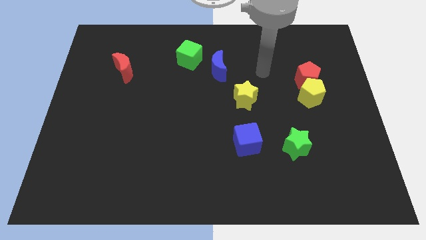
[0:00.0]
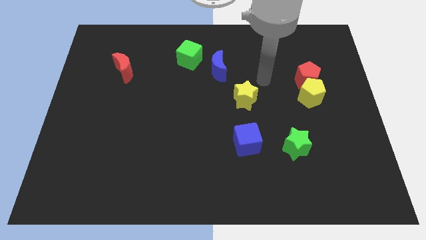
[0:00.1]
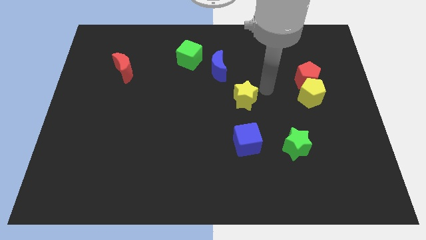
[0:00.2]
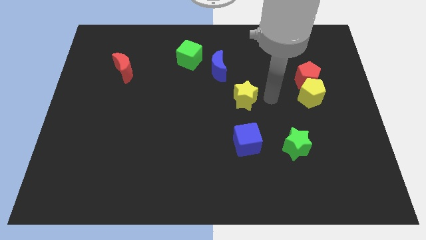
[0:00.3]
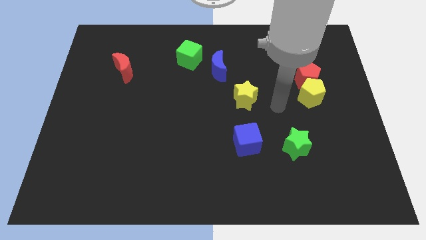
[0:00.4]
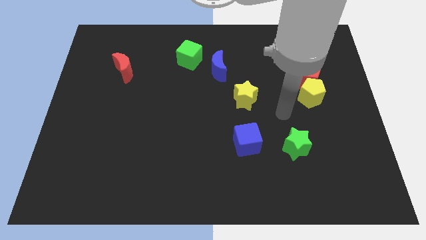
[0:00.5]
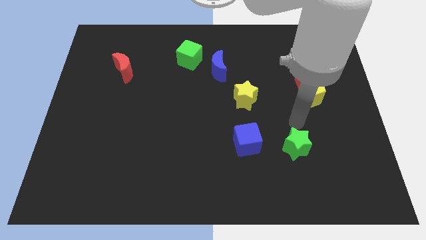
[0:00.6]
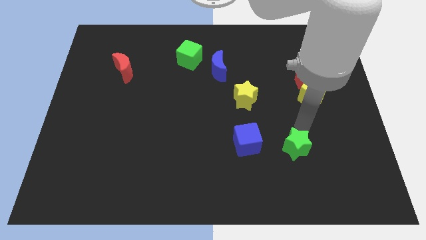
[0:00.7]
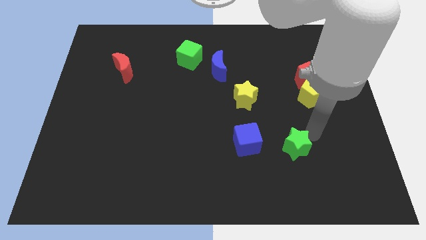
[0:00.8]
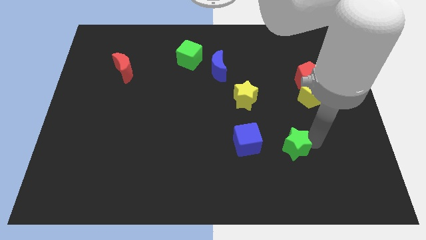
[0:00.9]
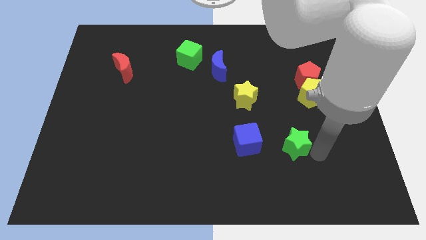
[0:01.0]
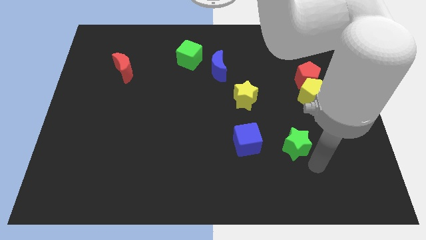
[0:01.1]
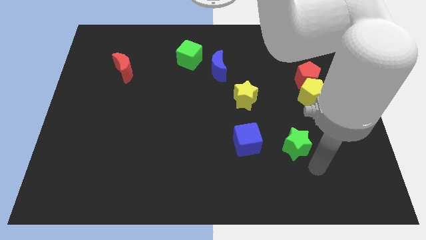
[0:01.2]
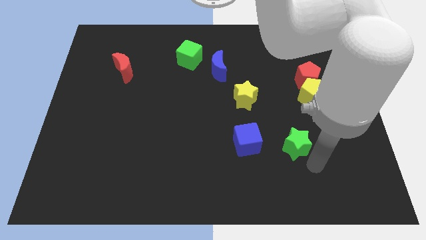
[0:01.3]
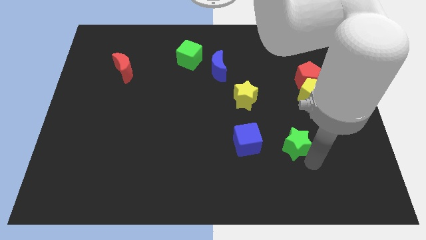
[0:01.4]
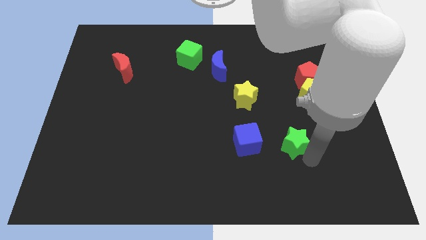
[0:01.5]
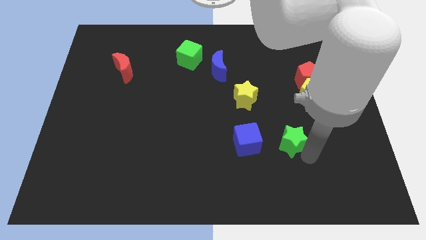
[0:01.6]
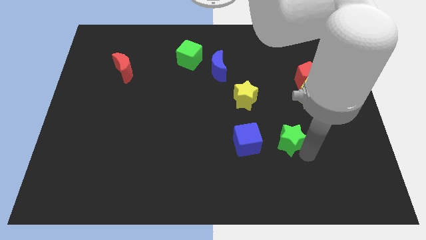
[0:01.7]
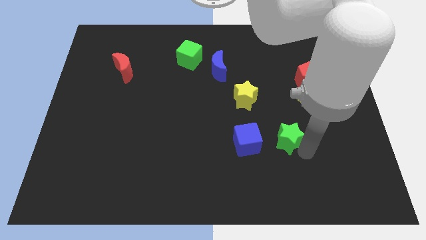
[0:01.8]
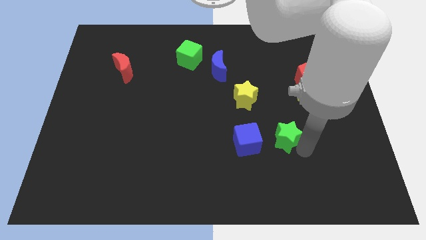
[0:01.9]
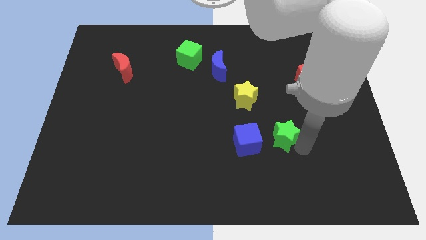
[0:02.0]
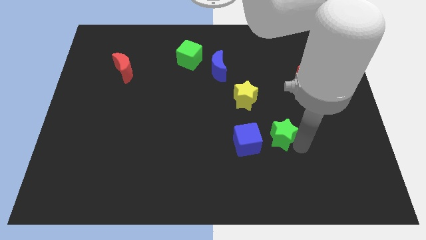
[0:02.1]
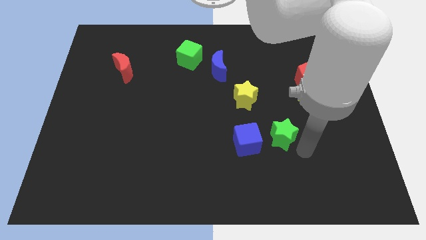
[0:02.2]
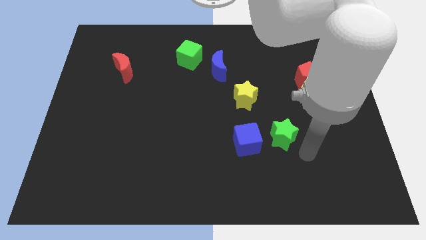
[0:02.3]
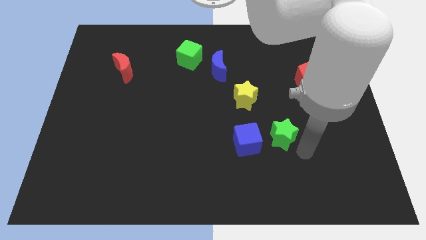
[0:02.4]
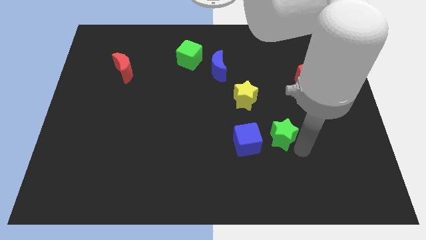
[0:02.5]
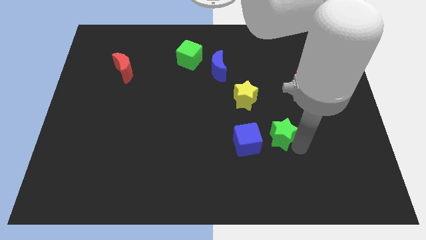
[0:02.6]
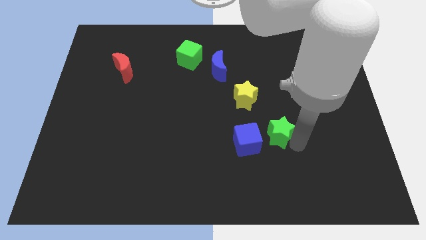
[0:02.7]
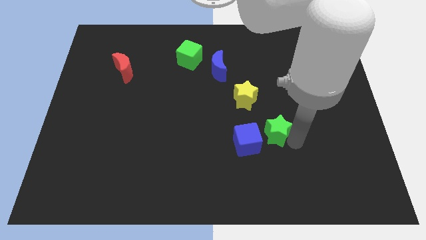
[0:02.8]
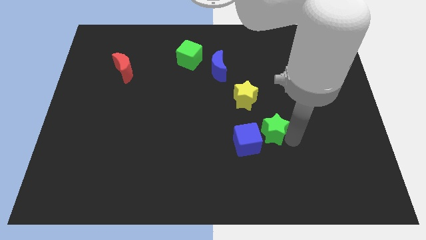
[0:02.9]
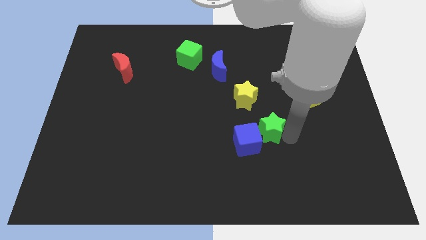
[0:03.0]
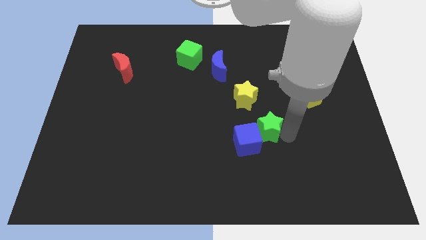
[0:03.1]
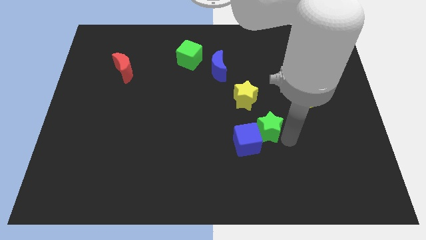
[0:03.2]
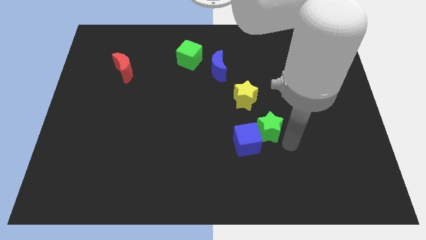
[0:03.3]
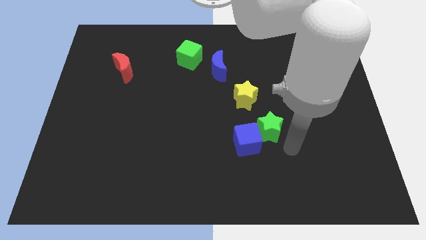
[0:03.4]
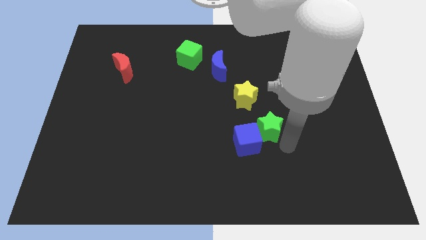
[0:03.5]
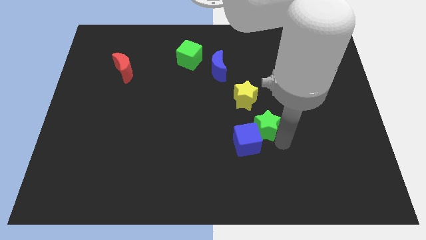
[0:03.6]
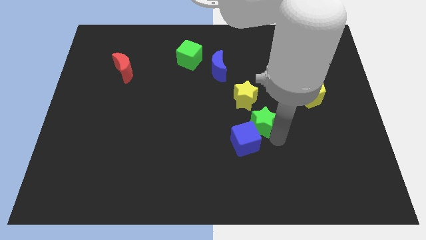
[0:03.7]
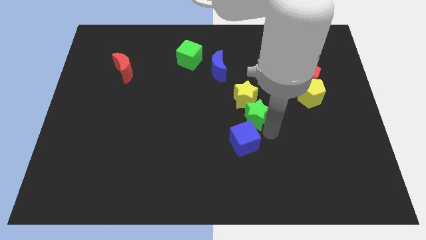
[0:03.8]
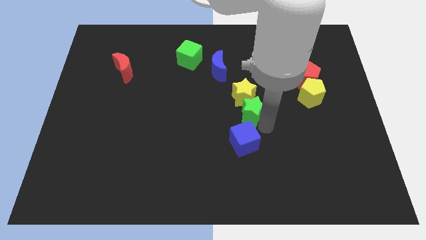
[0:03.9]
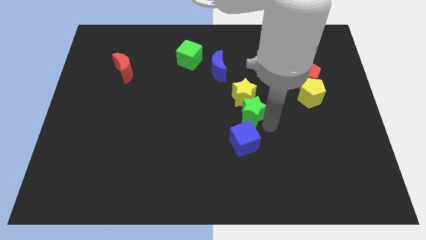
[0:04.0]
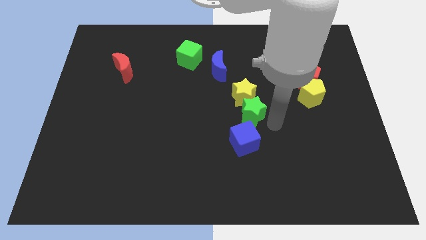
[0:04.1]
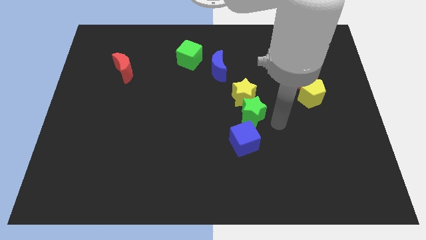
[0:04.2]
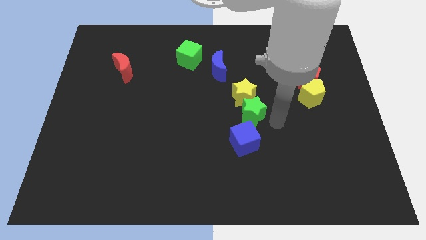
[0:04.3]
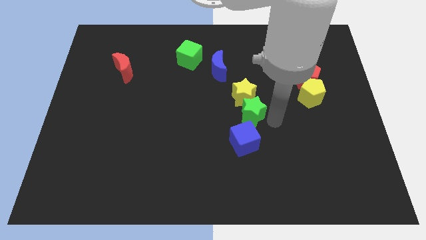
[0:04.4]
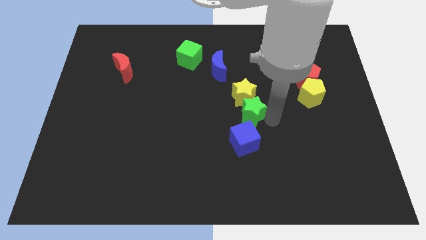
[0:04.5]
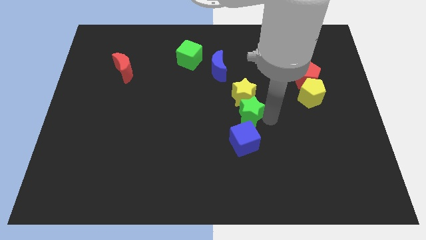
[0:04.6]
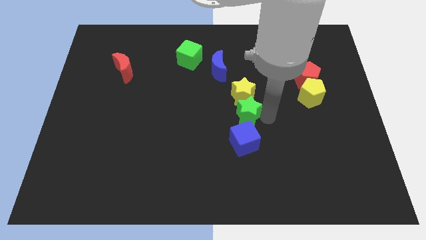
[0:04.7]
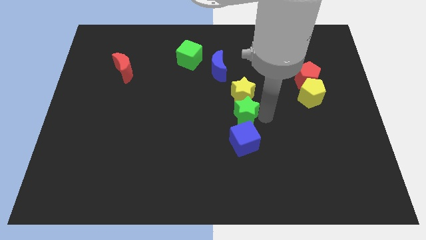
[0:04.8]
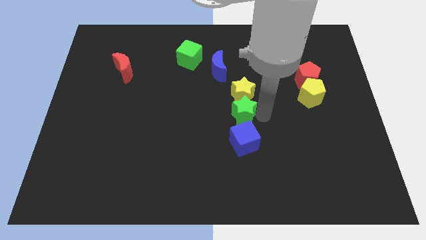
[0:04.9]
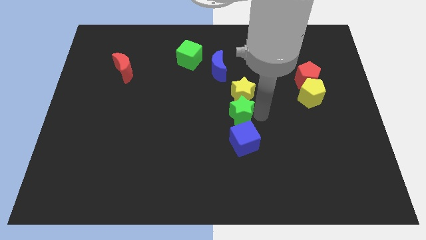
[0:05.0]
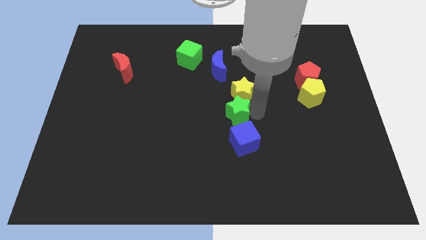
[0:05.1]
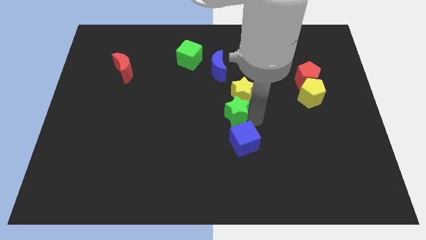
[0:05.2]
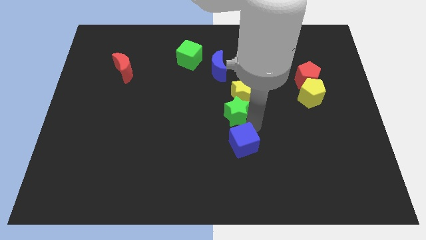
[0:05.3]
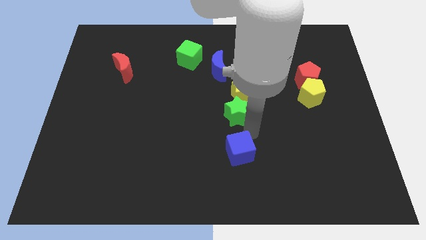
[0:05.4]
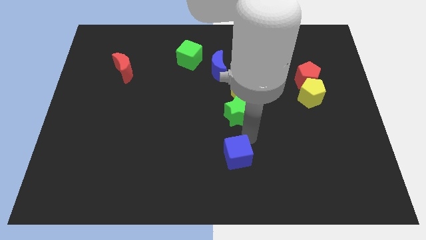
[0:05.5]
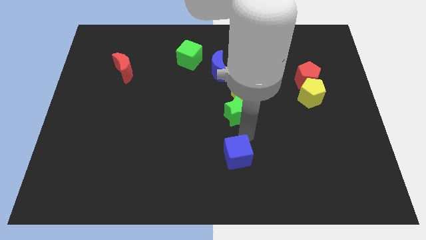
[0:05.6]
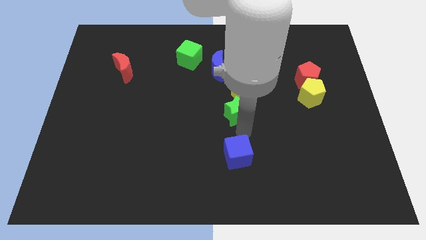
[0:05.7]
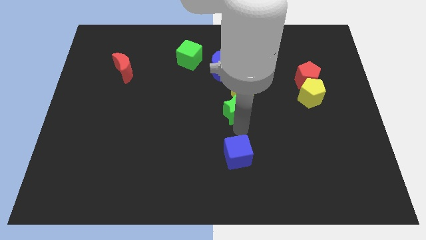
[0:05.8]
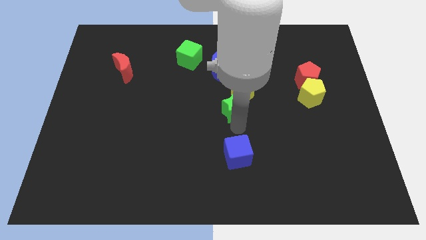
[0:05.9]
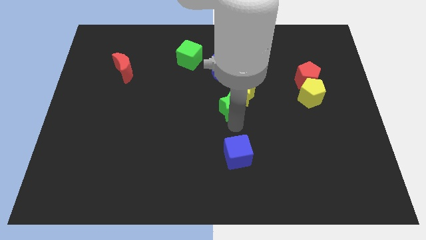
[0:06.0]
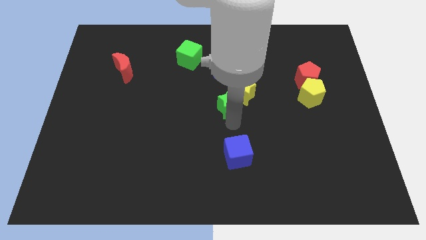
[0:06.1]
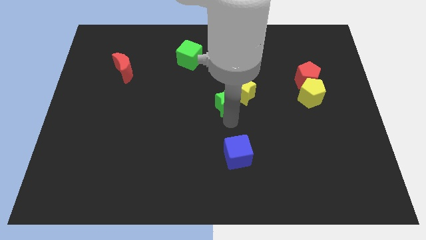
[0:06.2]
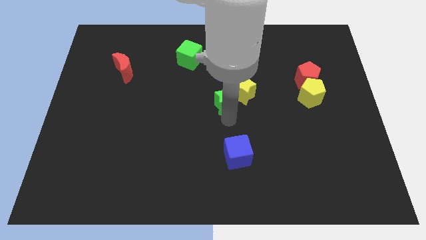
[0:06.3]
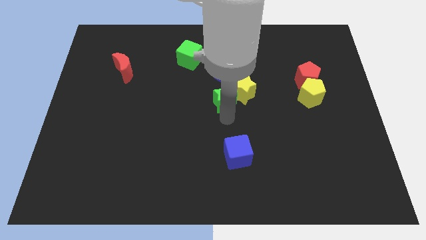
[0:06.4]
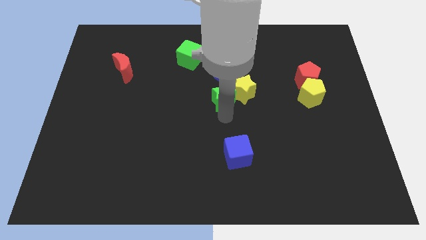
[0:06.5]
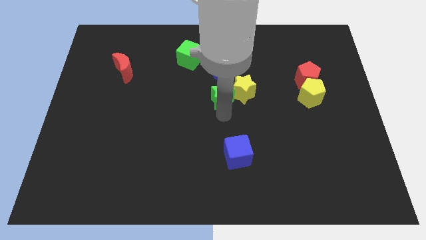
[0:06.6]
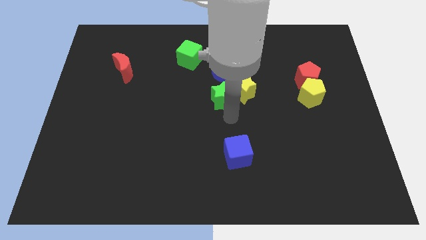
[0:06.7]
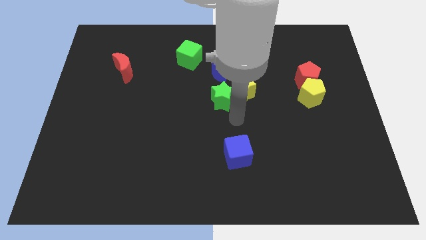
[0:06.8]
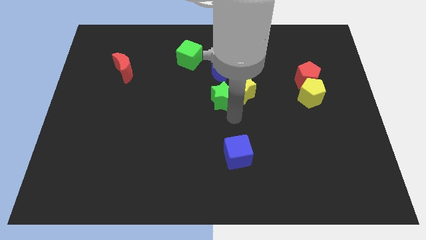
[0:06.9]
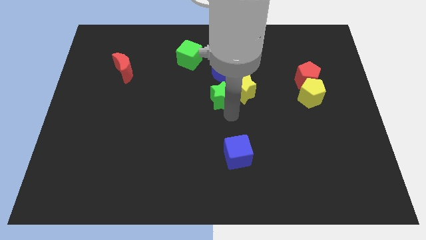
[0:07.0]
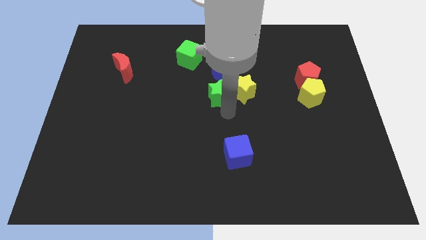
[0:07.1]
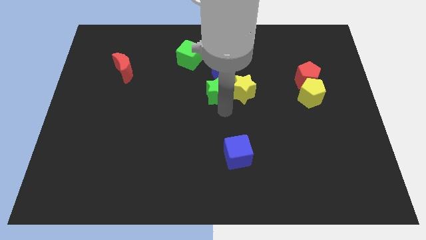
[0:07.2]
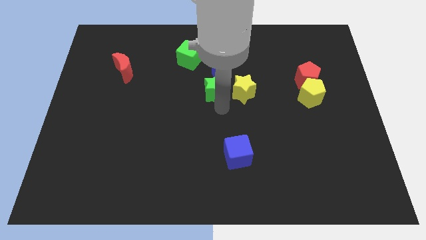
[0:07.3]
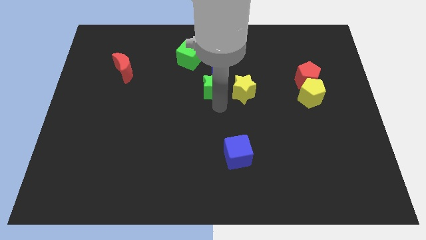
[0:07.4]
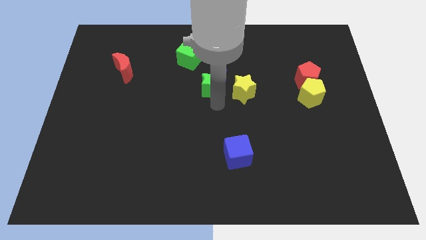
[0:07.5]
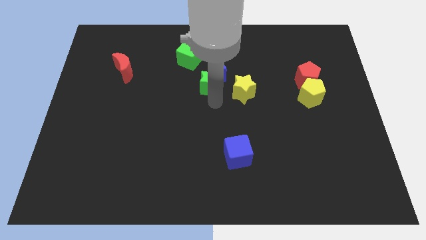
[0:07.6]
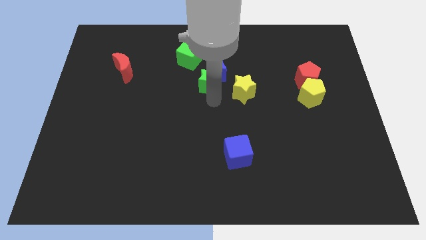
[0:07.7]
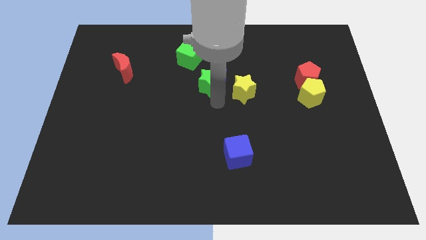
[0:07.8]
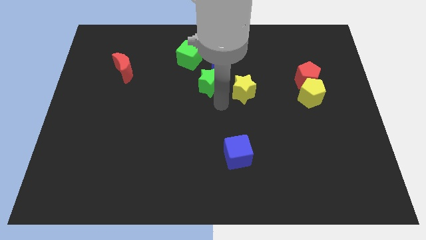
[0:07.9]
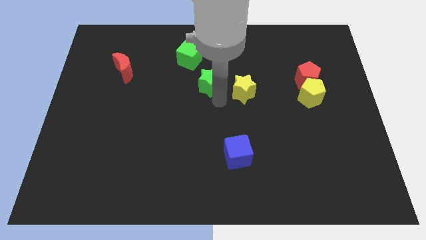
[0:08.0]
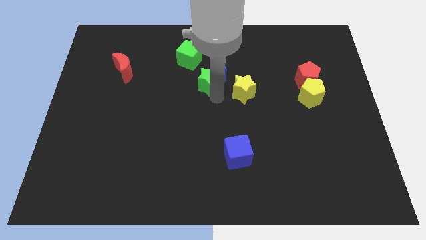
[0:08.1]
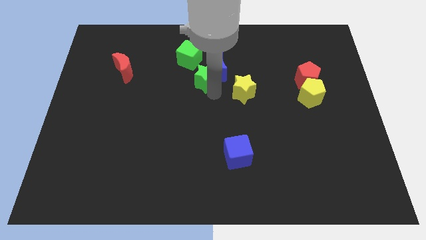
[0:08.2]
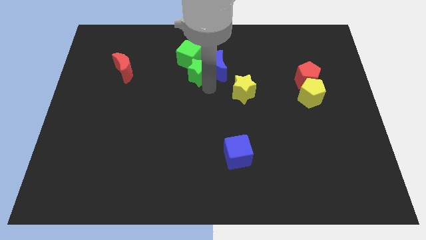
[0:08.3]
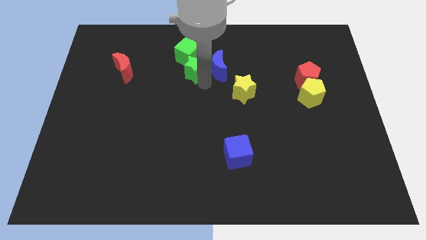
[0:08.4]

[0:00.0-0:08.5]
slide the green star close to the green cube
